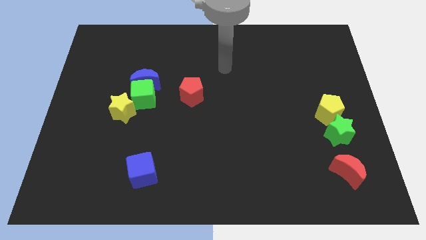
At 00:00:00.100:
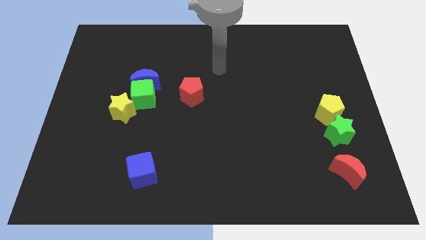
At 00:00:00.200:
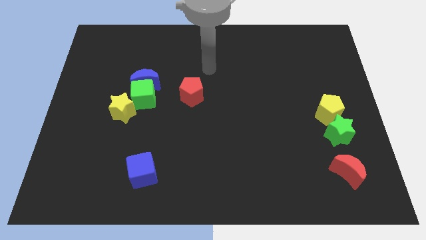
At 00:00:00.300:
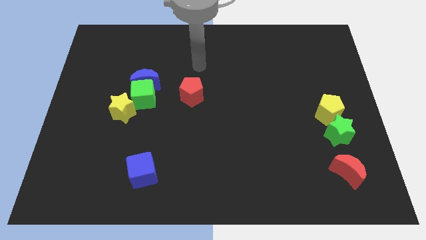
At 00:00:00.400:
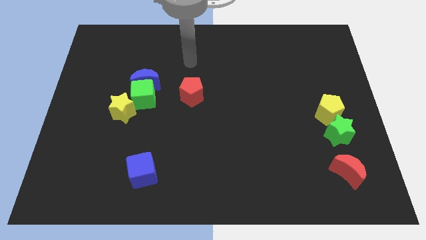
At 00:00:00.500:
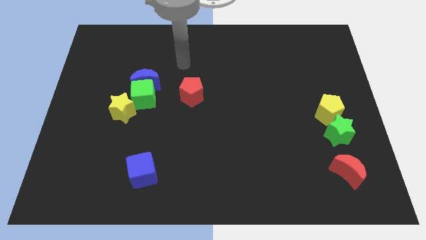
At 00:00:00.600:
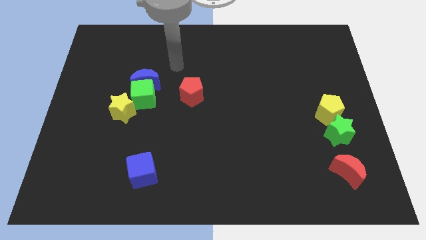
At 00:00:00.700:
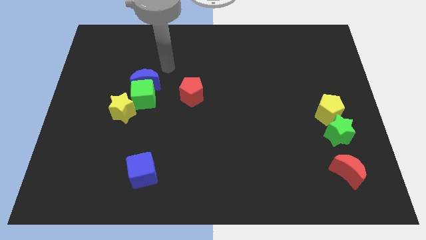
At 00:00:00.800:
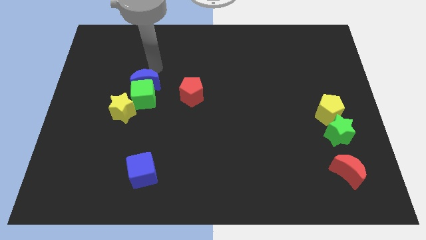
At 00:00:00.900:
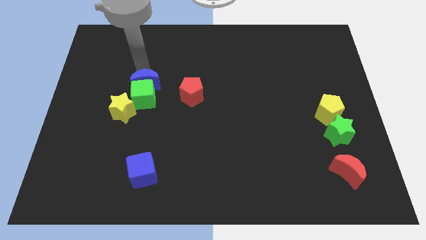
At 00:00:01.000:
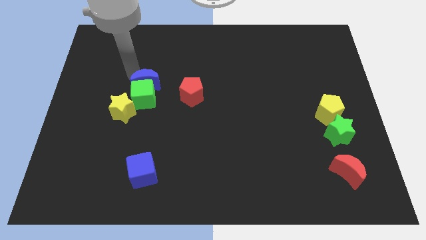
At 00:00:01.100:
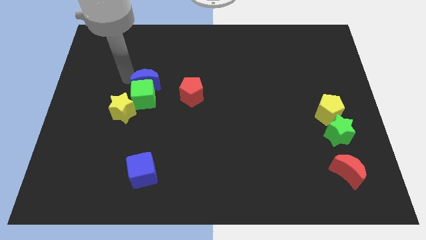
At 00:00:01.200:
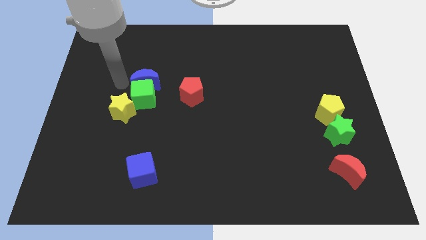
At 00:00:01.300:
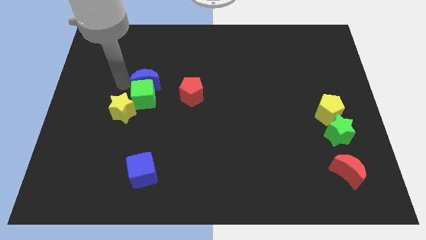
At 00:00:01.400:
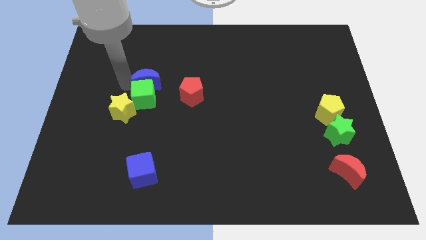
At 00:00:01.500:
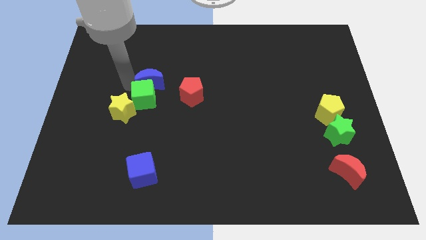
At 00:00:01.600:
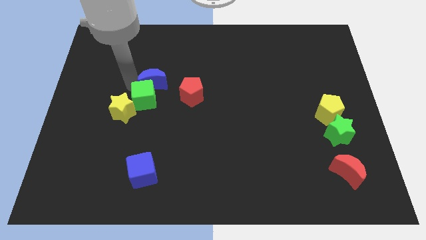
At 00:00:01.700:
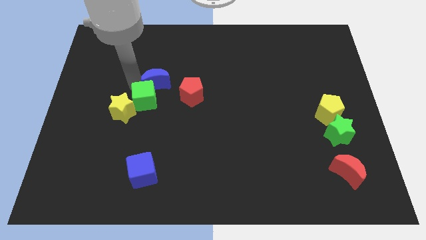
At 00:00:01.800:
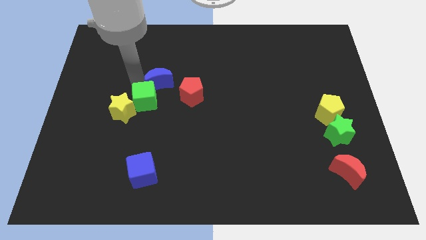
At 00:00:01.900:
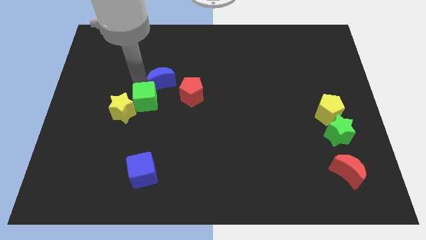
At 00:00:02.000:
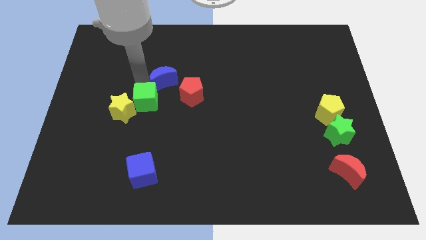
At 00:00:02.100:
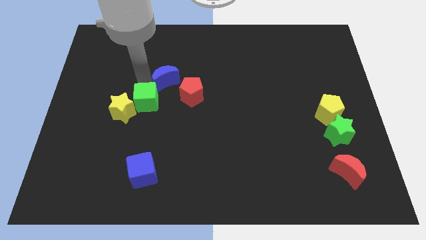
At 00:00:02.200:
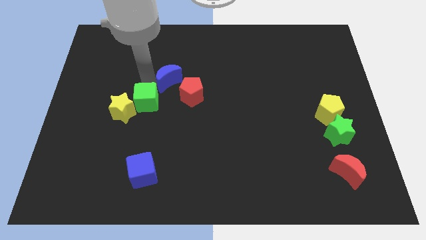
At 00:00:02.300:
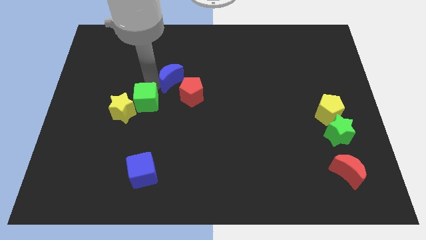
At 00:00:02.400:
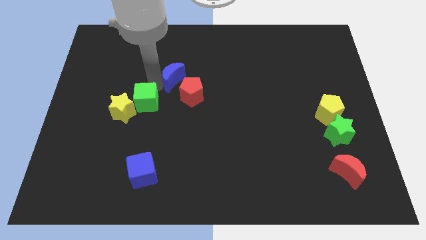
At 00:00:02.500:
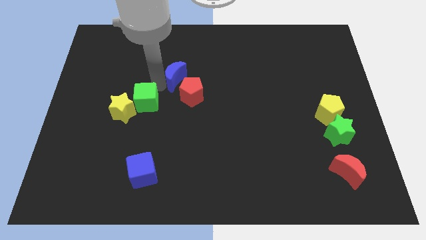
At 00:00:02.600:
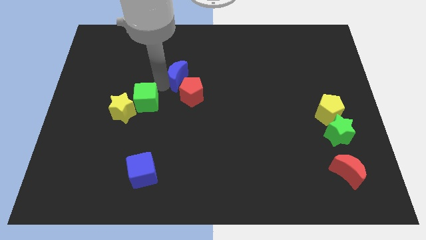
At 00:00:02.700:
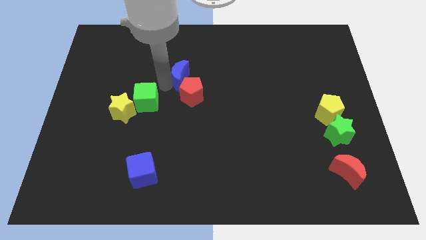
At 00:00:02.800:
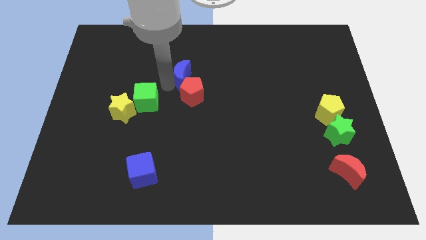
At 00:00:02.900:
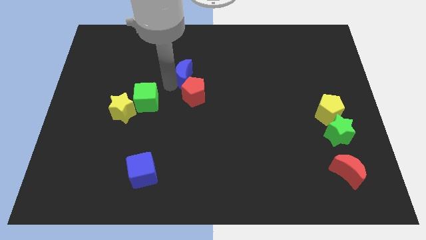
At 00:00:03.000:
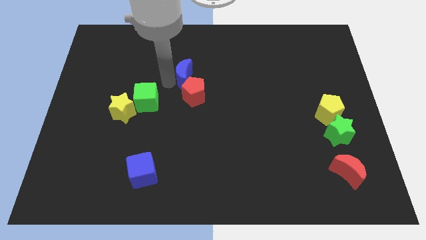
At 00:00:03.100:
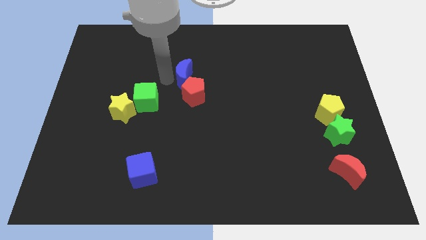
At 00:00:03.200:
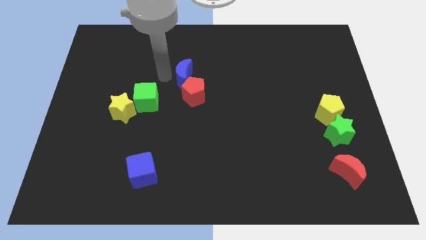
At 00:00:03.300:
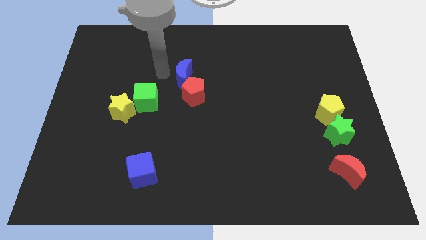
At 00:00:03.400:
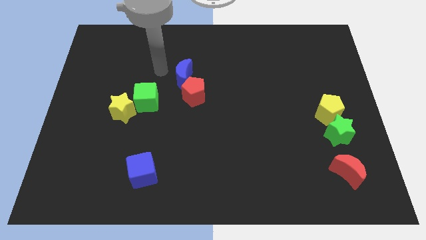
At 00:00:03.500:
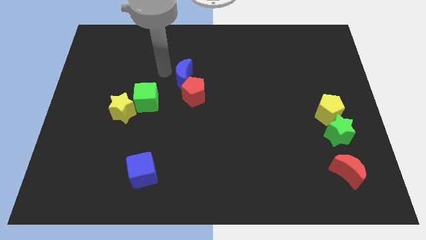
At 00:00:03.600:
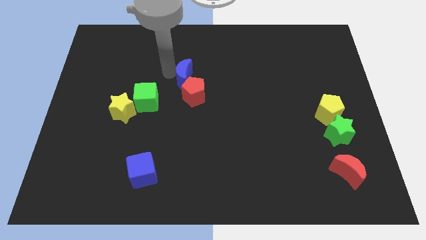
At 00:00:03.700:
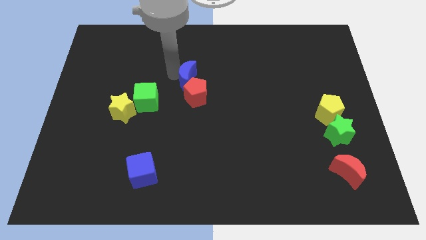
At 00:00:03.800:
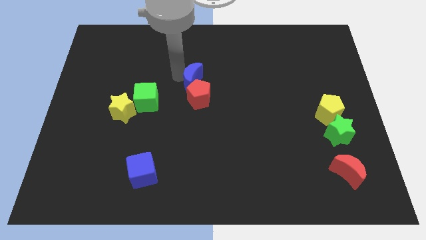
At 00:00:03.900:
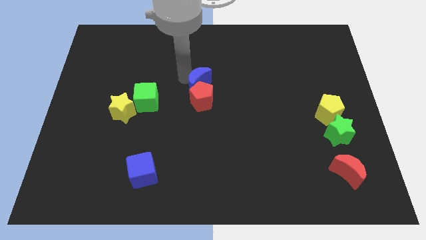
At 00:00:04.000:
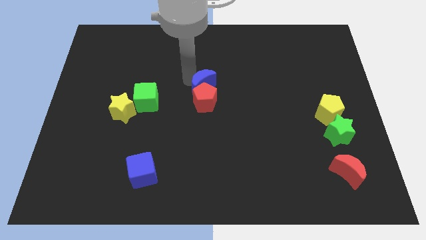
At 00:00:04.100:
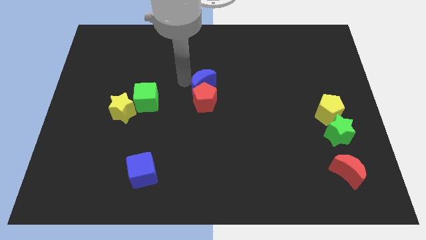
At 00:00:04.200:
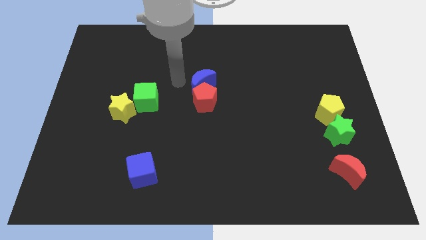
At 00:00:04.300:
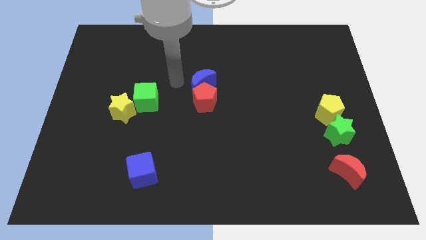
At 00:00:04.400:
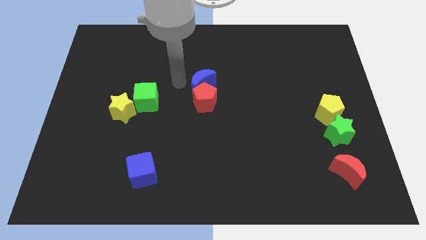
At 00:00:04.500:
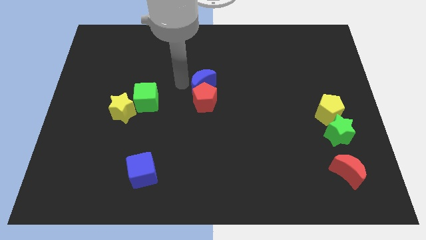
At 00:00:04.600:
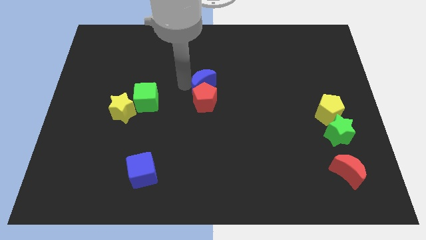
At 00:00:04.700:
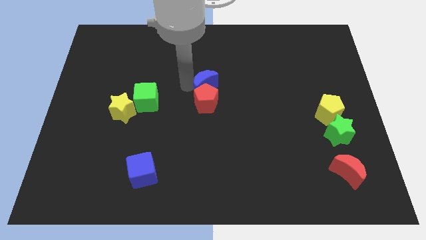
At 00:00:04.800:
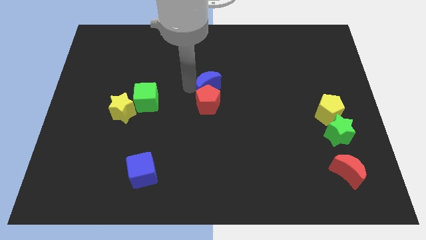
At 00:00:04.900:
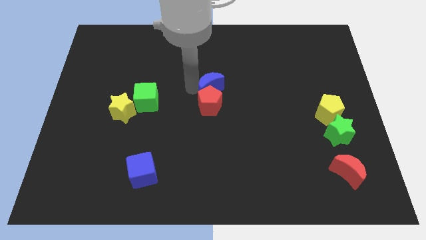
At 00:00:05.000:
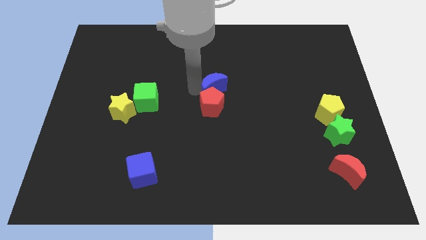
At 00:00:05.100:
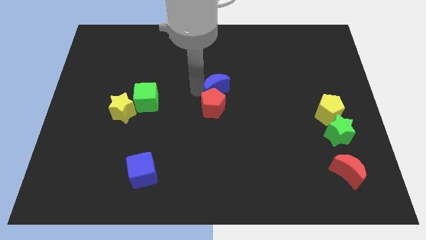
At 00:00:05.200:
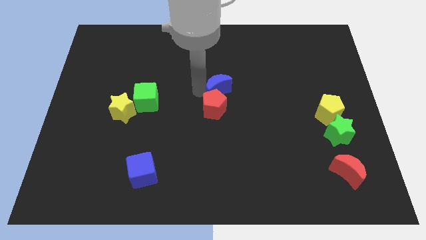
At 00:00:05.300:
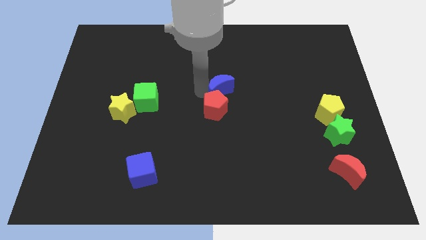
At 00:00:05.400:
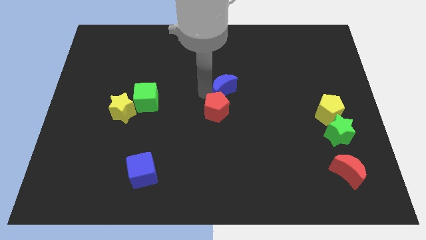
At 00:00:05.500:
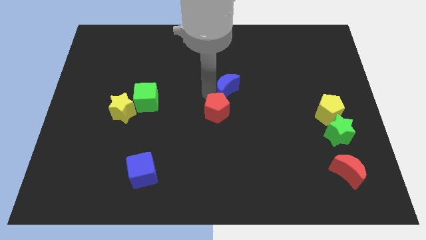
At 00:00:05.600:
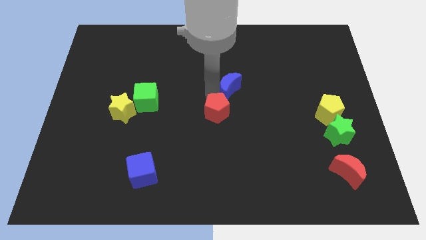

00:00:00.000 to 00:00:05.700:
push the blue moon right

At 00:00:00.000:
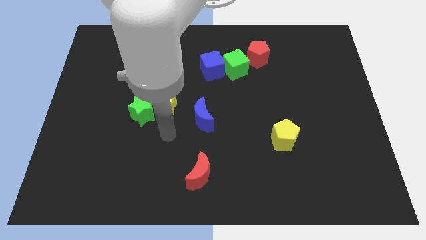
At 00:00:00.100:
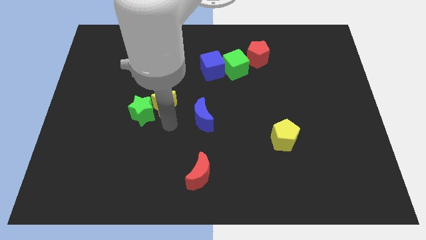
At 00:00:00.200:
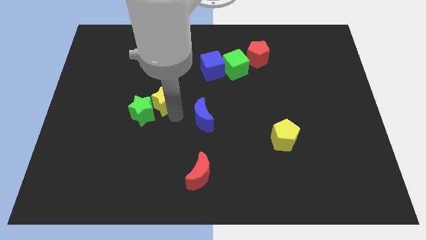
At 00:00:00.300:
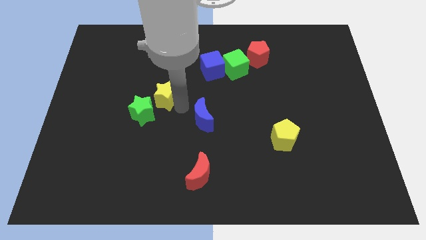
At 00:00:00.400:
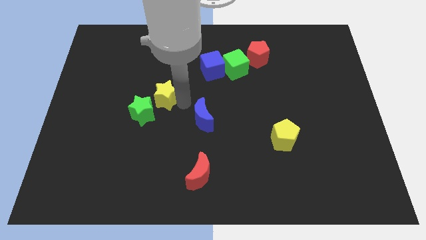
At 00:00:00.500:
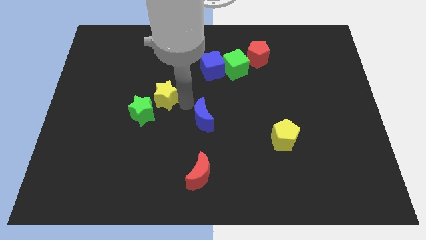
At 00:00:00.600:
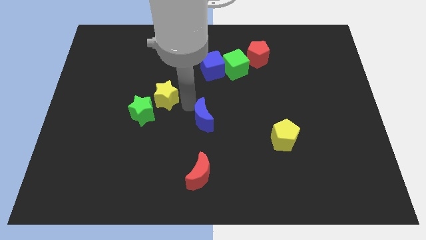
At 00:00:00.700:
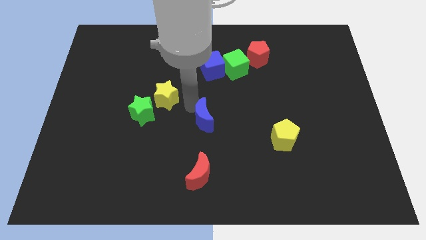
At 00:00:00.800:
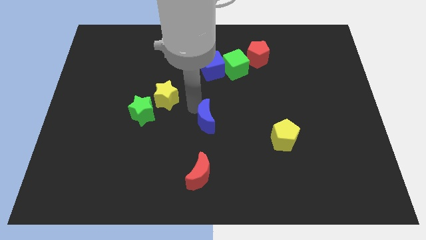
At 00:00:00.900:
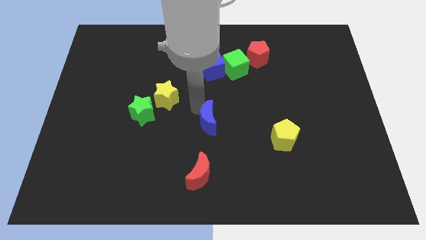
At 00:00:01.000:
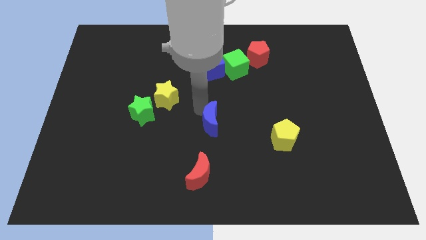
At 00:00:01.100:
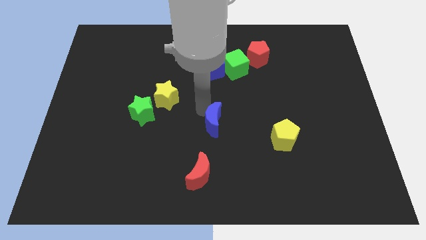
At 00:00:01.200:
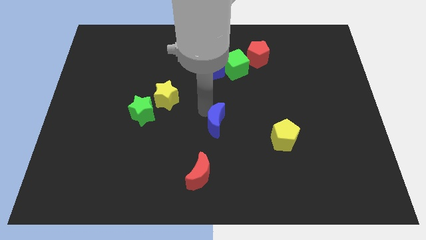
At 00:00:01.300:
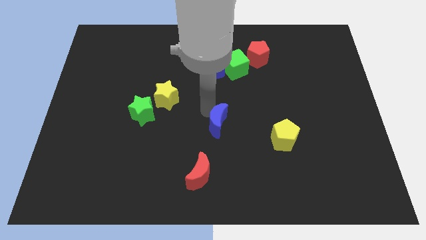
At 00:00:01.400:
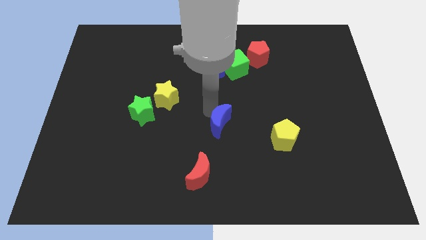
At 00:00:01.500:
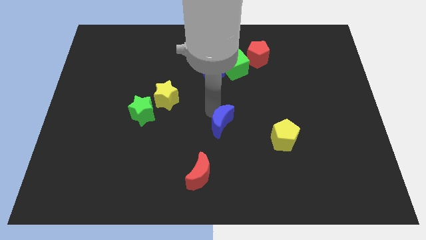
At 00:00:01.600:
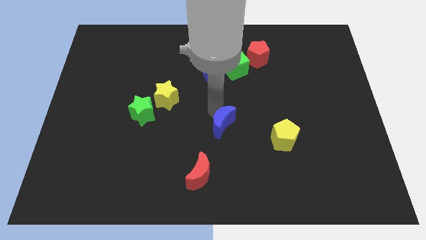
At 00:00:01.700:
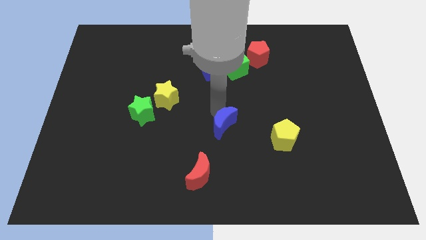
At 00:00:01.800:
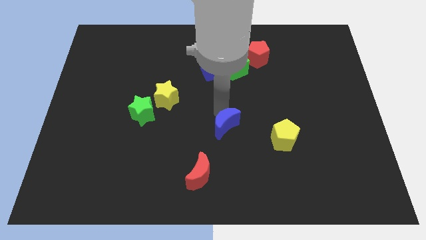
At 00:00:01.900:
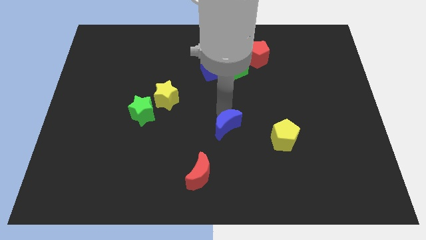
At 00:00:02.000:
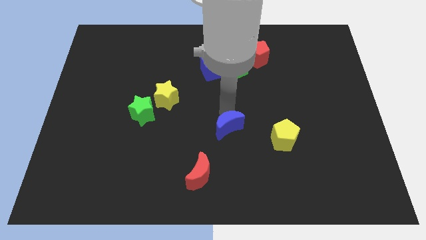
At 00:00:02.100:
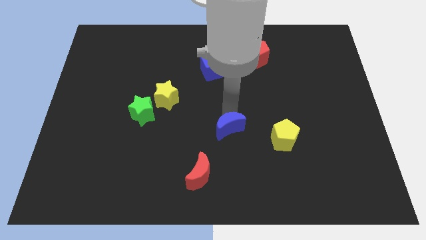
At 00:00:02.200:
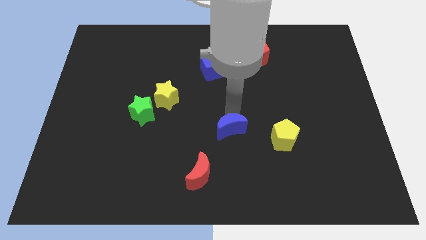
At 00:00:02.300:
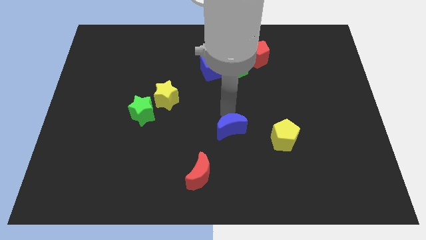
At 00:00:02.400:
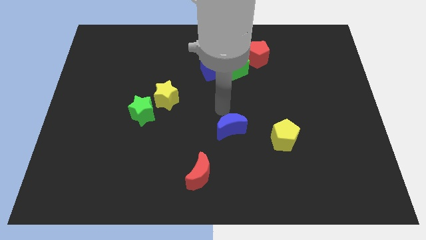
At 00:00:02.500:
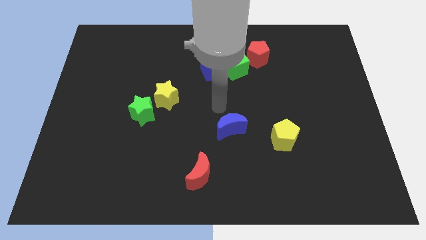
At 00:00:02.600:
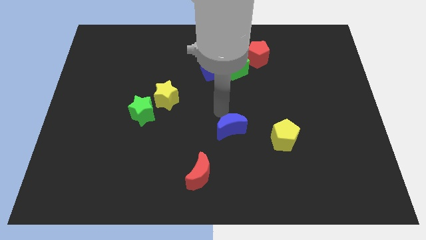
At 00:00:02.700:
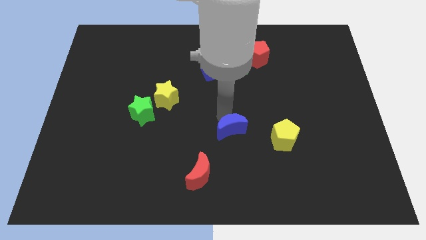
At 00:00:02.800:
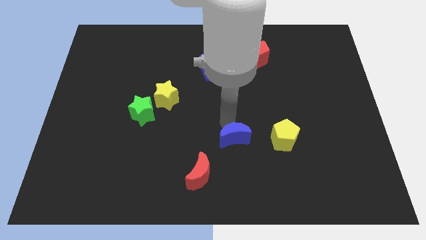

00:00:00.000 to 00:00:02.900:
slightly push the blue moon down and to the right
